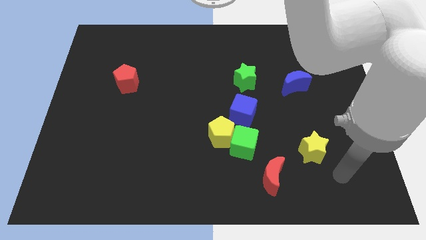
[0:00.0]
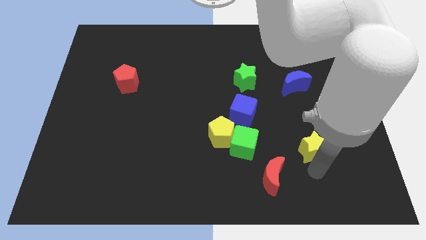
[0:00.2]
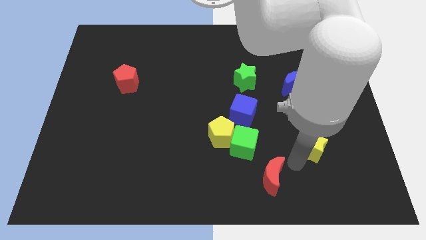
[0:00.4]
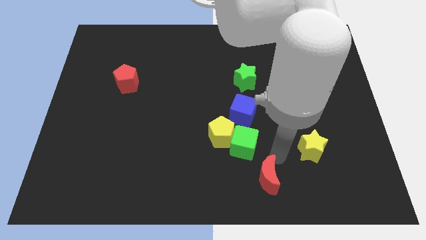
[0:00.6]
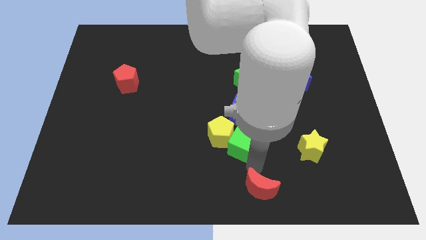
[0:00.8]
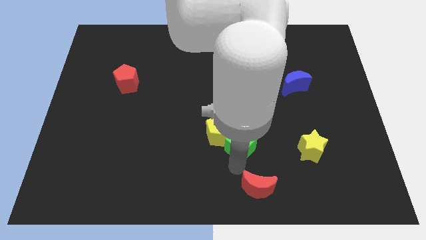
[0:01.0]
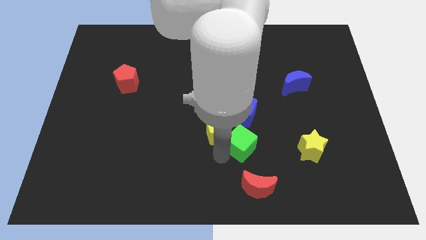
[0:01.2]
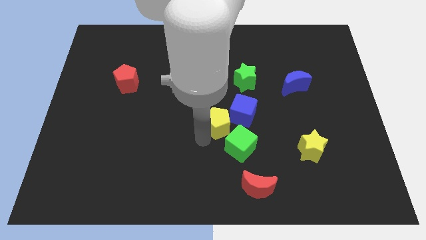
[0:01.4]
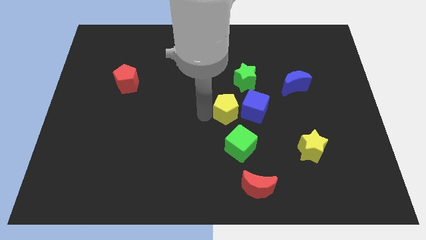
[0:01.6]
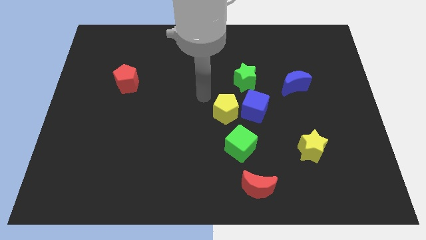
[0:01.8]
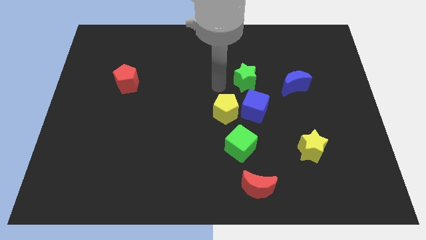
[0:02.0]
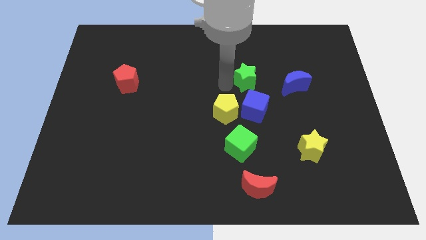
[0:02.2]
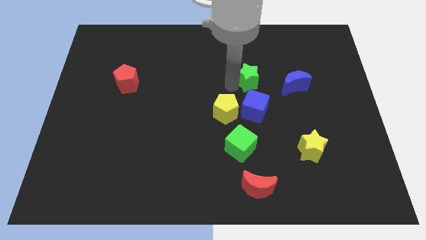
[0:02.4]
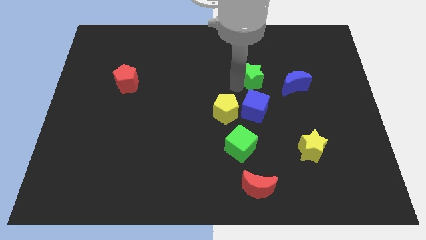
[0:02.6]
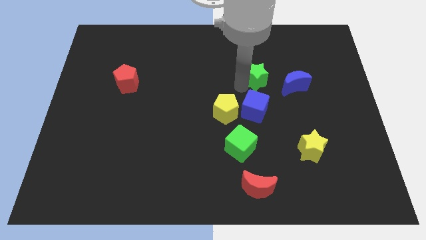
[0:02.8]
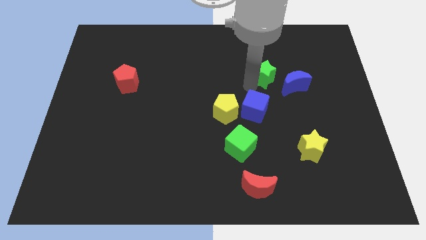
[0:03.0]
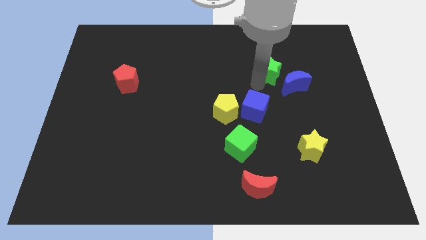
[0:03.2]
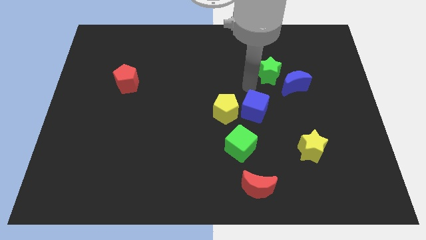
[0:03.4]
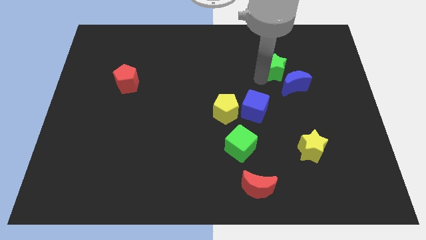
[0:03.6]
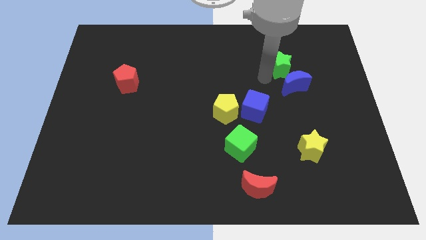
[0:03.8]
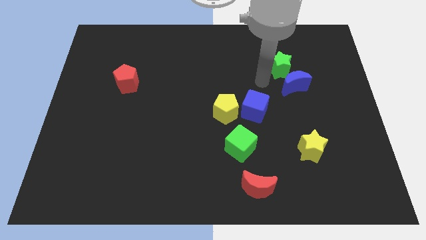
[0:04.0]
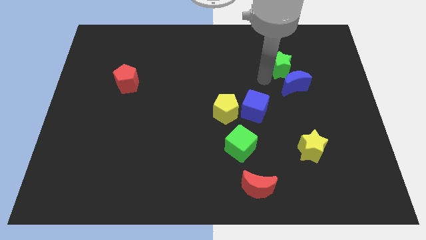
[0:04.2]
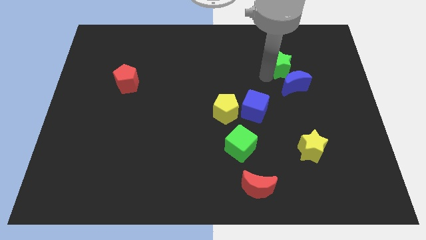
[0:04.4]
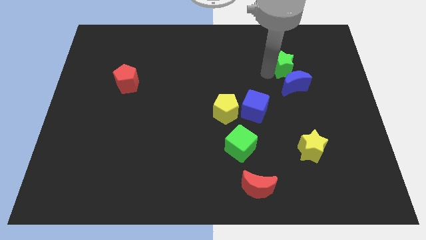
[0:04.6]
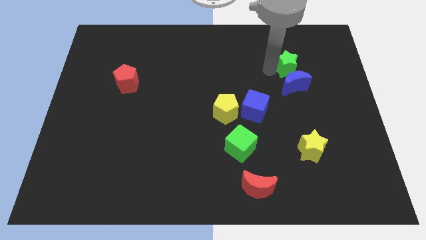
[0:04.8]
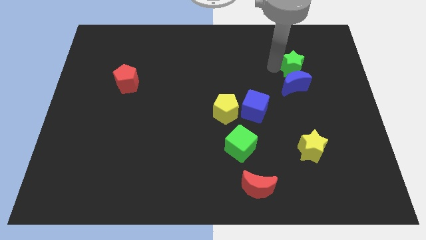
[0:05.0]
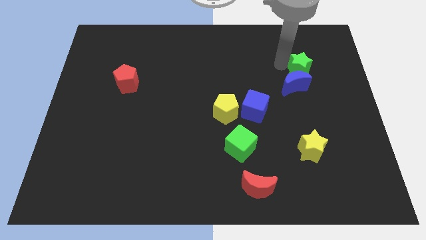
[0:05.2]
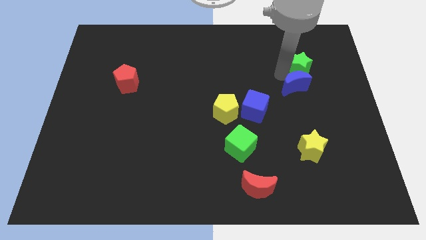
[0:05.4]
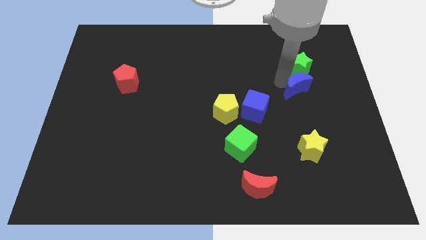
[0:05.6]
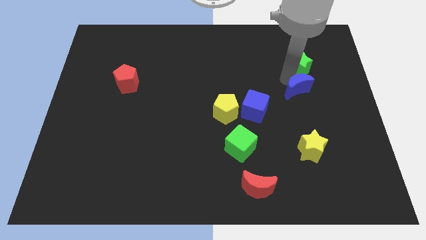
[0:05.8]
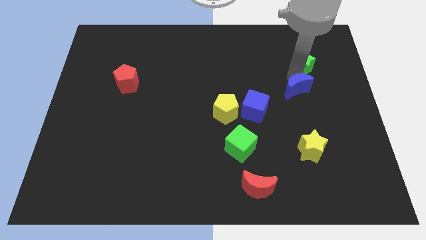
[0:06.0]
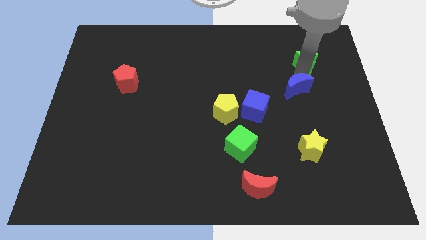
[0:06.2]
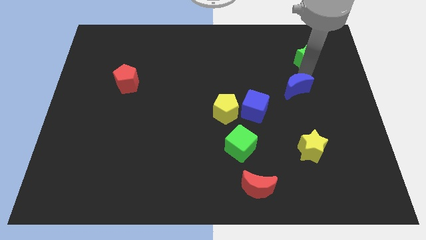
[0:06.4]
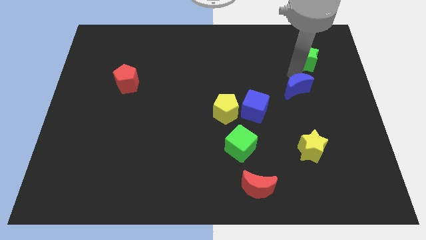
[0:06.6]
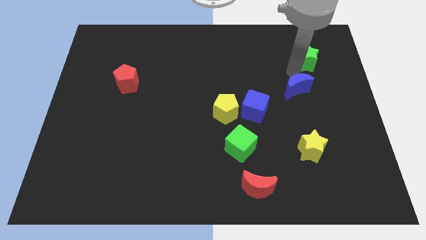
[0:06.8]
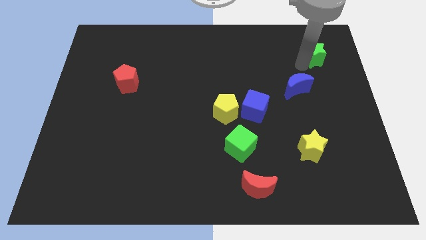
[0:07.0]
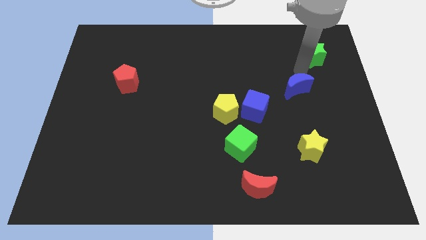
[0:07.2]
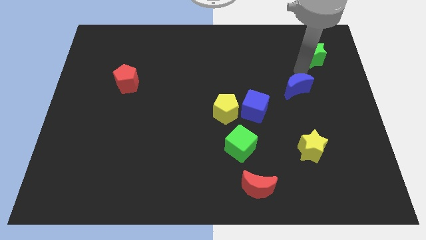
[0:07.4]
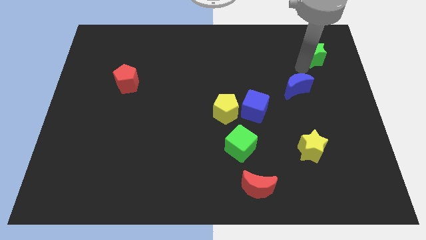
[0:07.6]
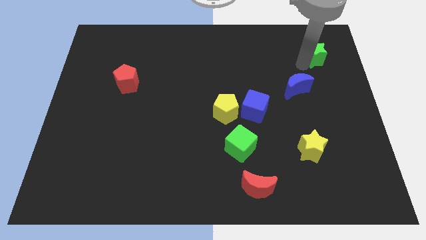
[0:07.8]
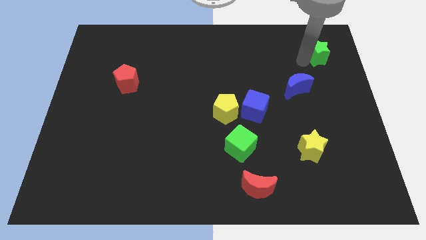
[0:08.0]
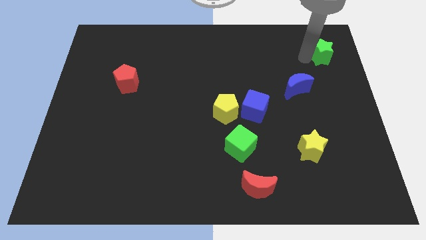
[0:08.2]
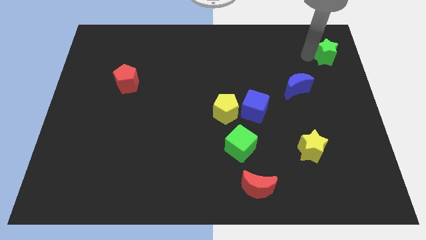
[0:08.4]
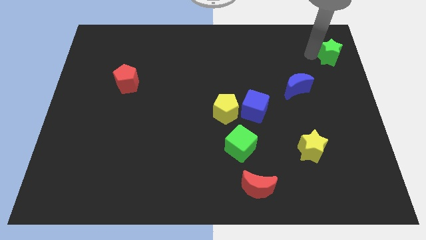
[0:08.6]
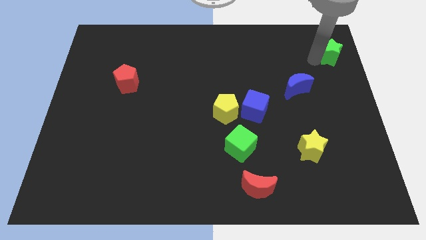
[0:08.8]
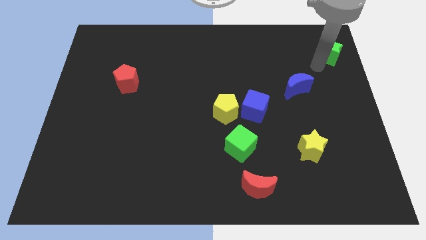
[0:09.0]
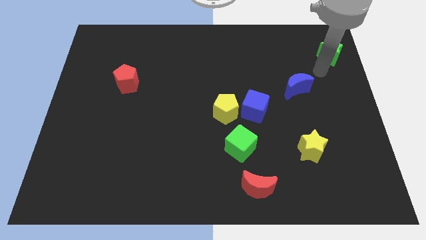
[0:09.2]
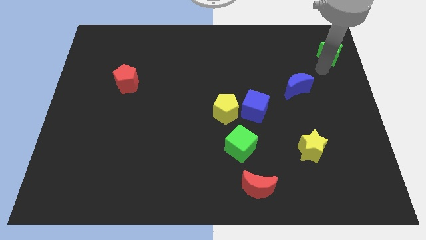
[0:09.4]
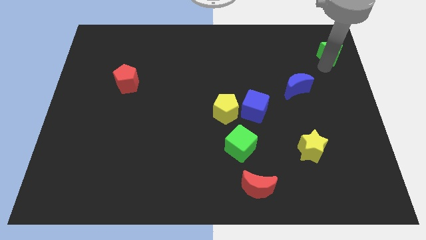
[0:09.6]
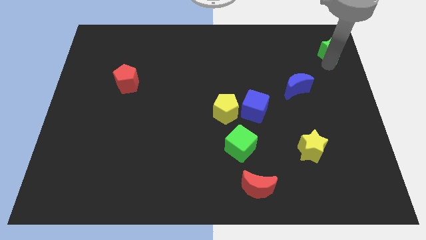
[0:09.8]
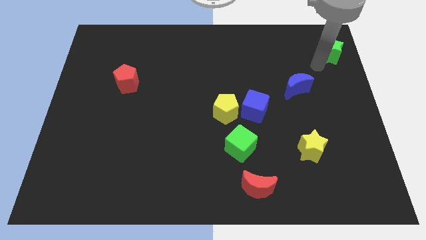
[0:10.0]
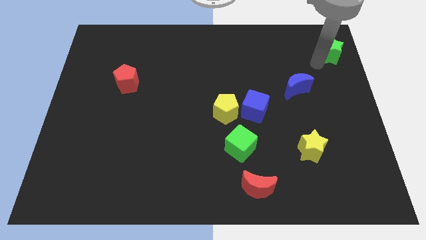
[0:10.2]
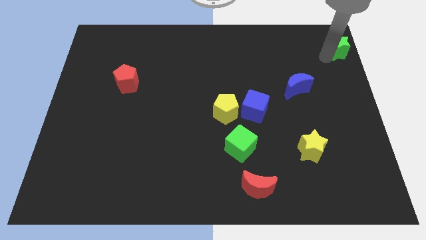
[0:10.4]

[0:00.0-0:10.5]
put the green star to the upper right corner

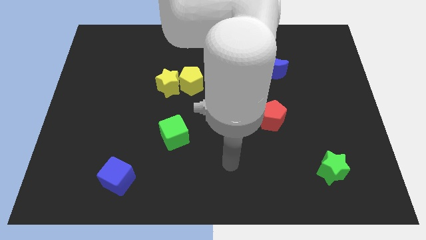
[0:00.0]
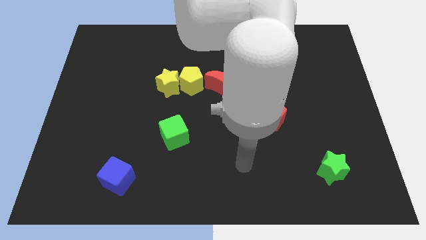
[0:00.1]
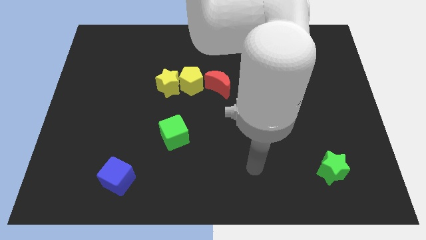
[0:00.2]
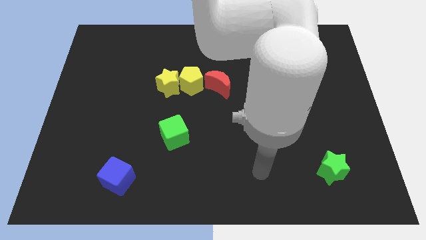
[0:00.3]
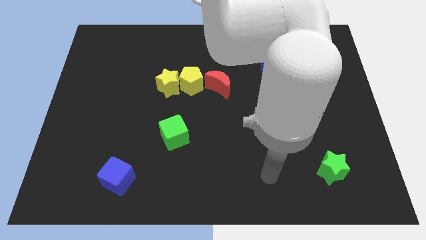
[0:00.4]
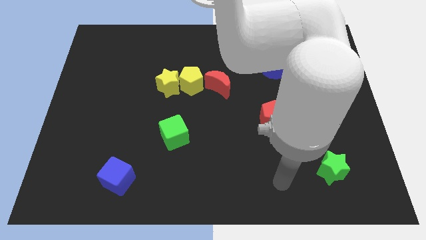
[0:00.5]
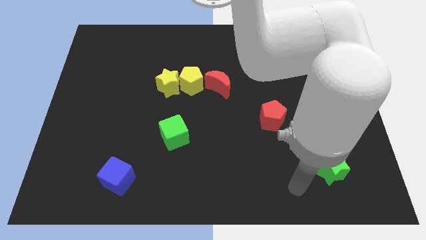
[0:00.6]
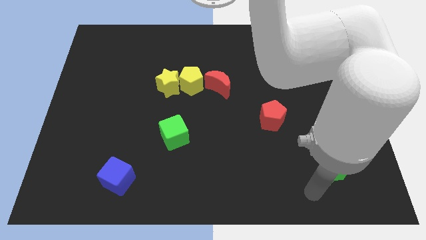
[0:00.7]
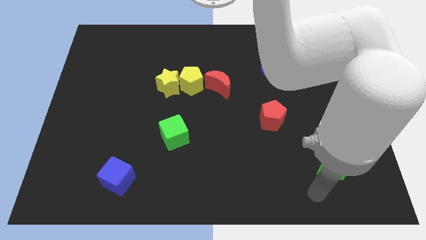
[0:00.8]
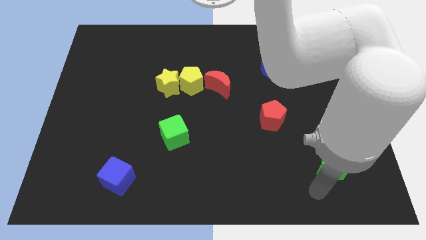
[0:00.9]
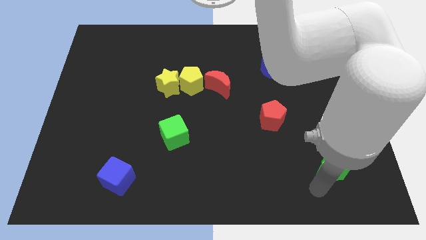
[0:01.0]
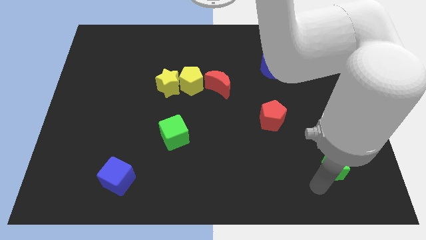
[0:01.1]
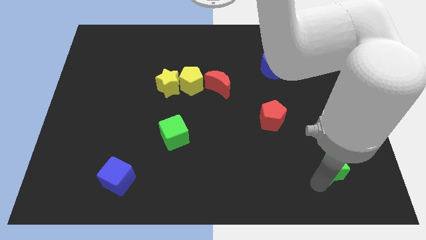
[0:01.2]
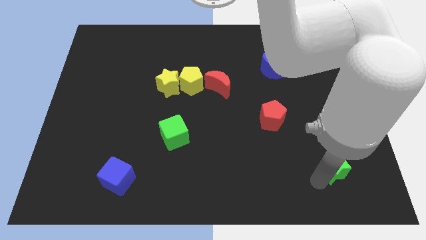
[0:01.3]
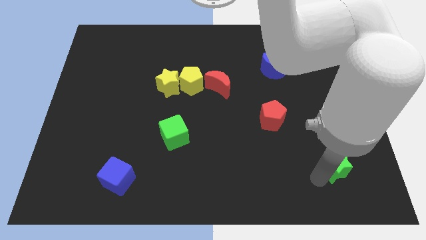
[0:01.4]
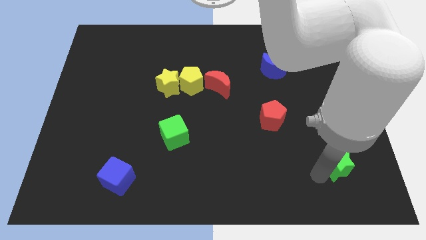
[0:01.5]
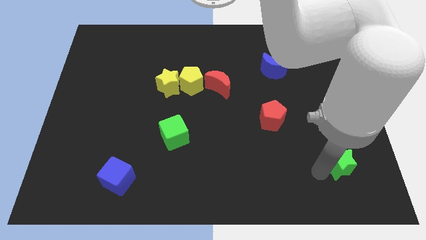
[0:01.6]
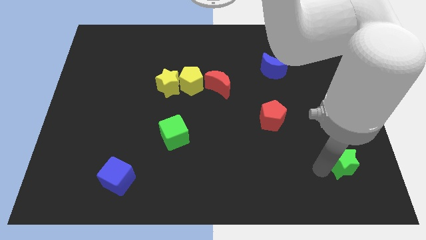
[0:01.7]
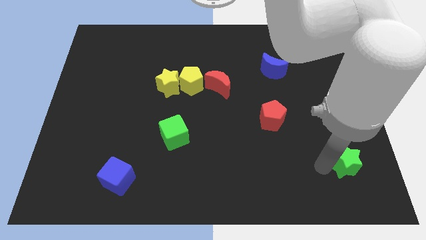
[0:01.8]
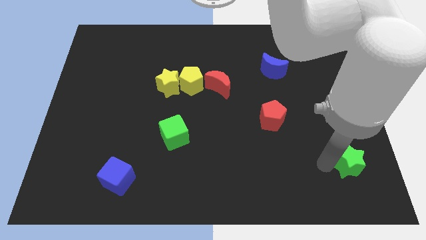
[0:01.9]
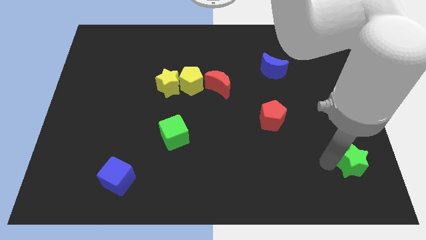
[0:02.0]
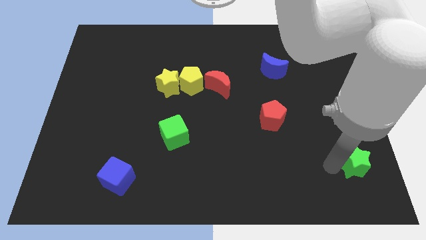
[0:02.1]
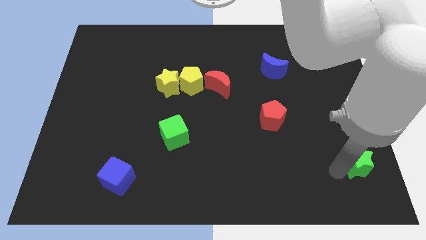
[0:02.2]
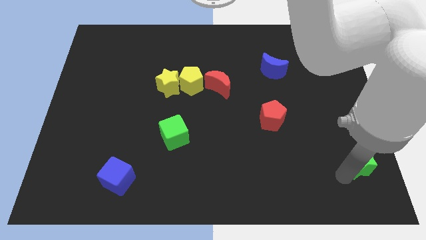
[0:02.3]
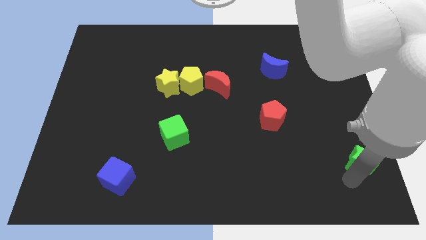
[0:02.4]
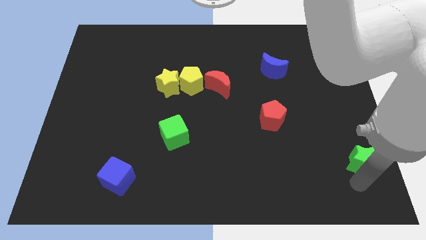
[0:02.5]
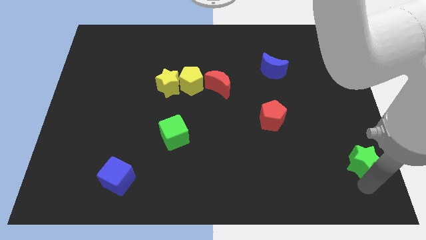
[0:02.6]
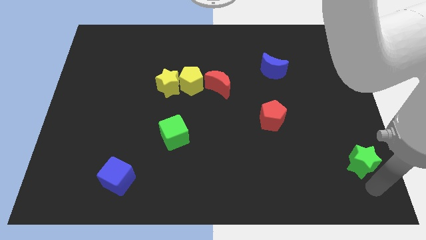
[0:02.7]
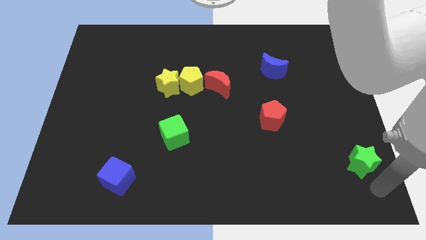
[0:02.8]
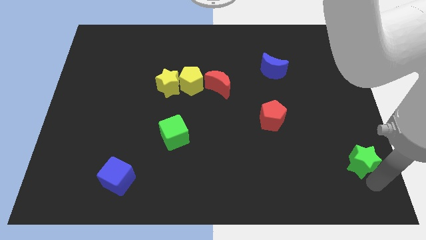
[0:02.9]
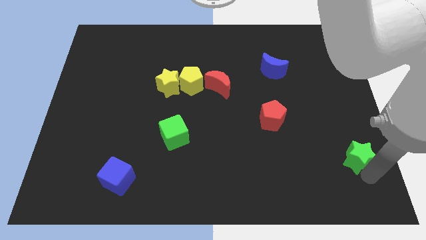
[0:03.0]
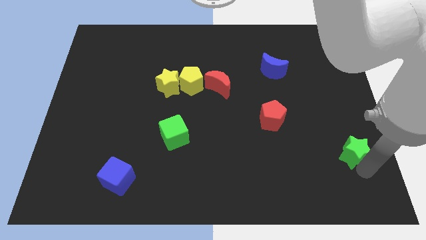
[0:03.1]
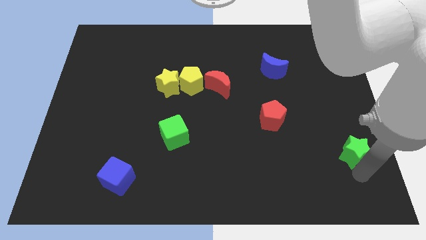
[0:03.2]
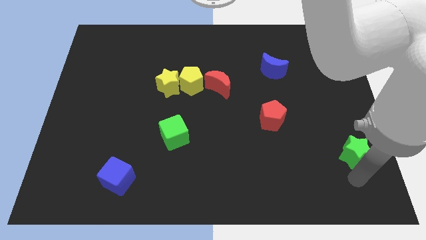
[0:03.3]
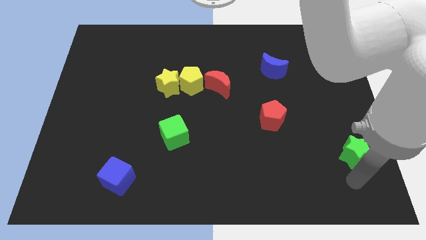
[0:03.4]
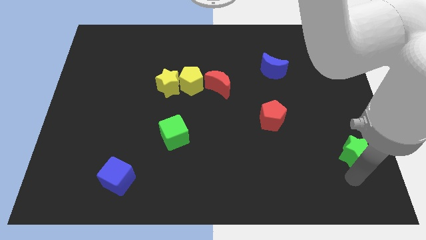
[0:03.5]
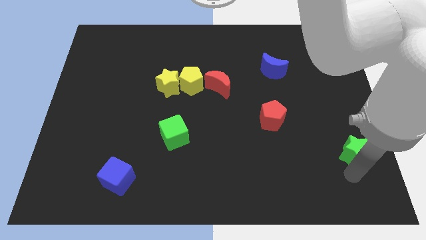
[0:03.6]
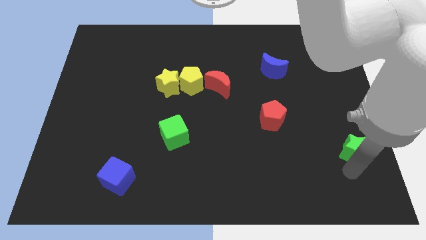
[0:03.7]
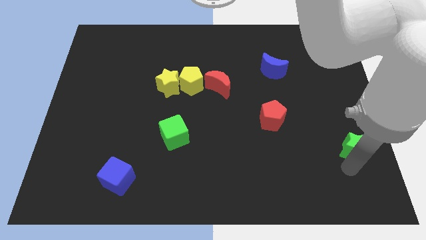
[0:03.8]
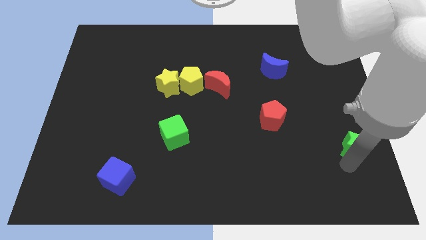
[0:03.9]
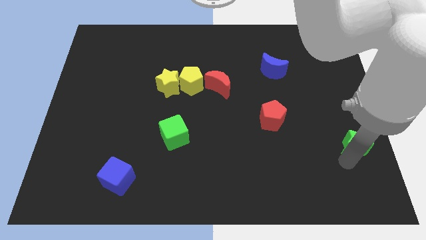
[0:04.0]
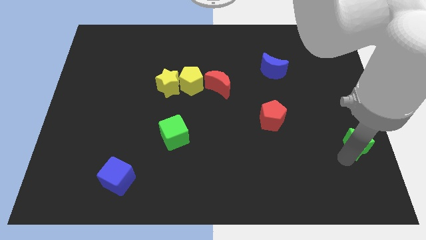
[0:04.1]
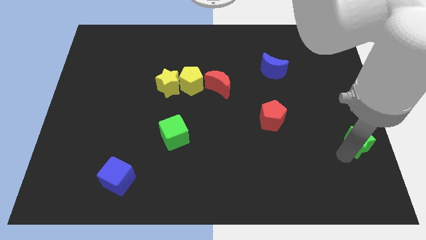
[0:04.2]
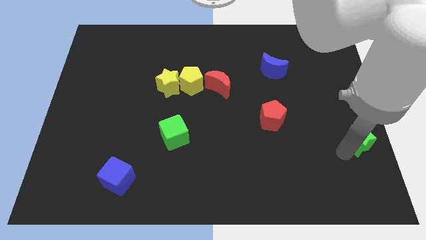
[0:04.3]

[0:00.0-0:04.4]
slide the green star to the right side of the board
